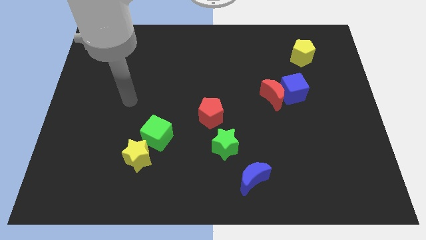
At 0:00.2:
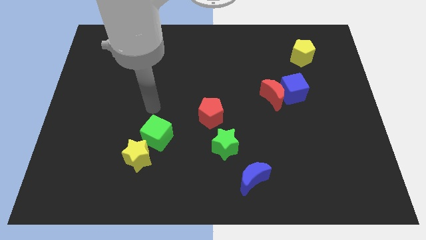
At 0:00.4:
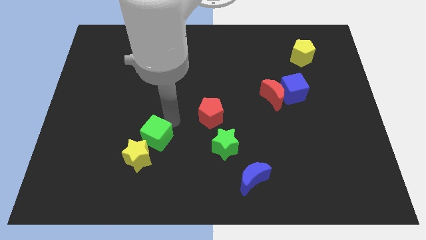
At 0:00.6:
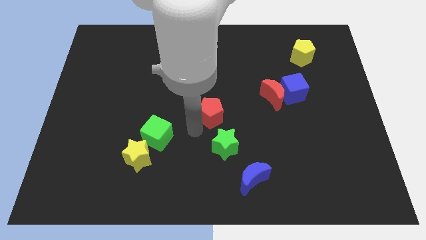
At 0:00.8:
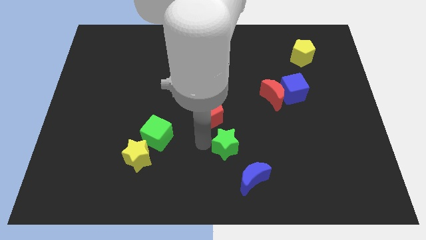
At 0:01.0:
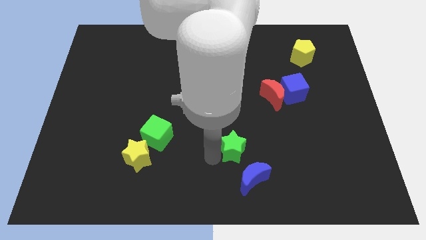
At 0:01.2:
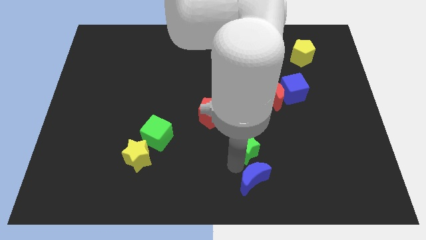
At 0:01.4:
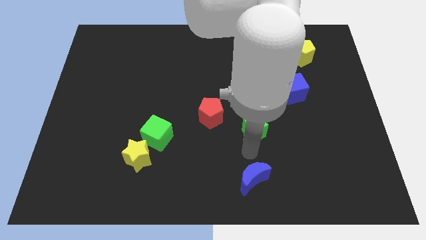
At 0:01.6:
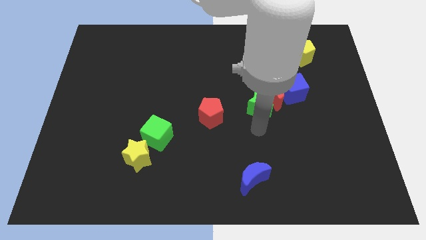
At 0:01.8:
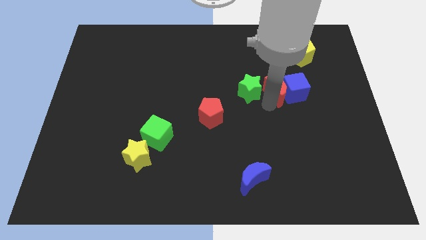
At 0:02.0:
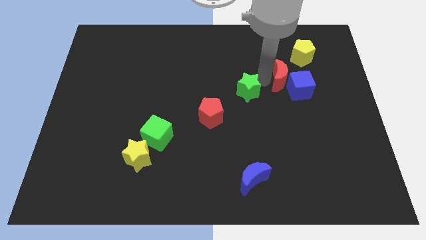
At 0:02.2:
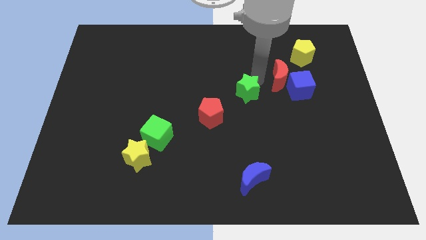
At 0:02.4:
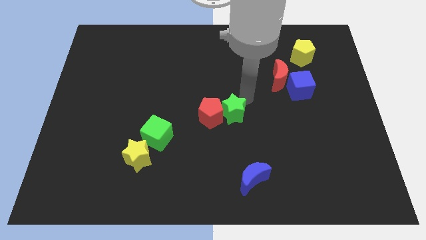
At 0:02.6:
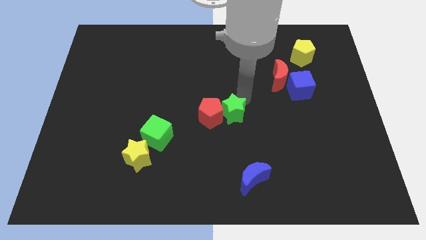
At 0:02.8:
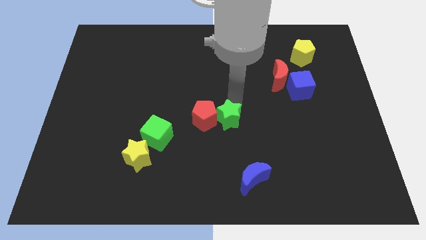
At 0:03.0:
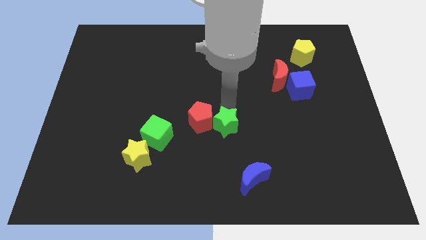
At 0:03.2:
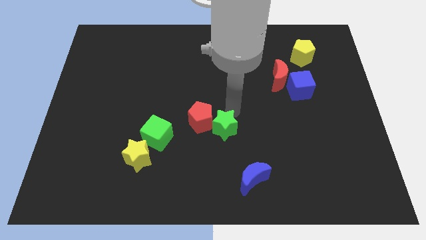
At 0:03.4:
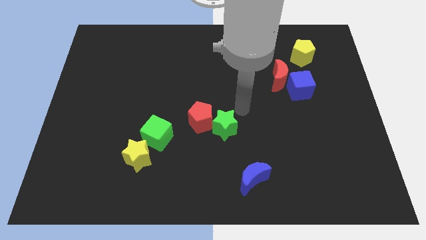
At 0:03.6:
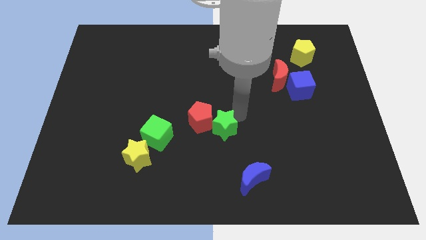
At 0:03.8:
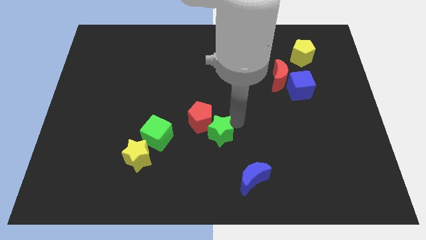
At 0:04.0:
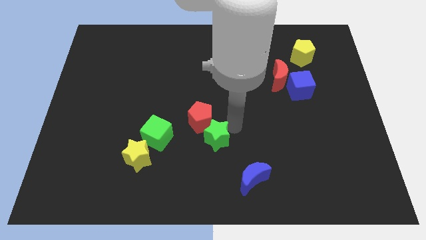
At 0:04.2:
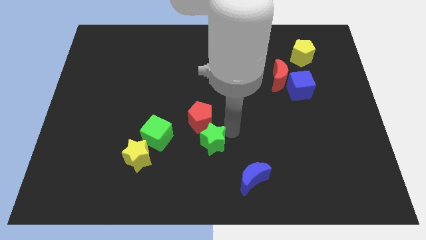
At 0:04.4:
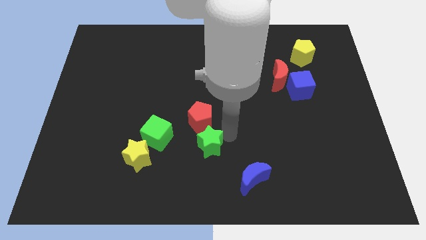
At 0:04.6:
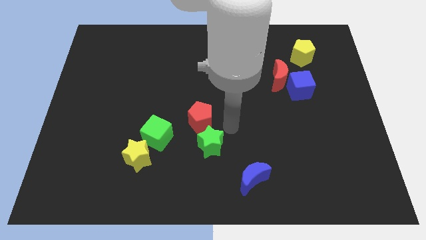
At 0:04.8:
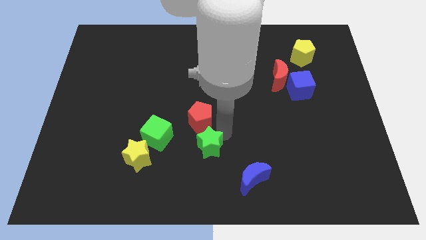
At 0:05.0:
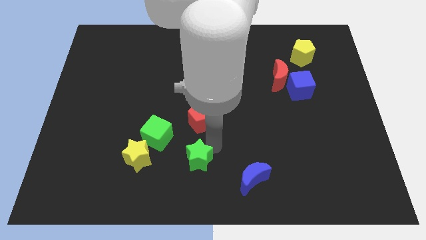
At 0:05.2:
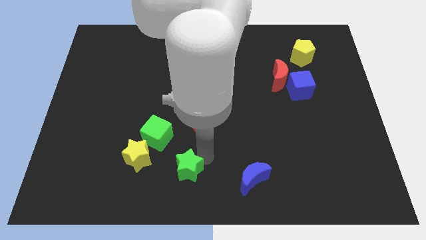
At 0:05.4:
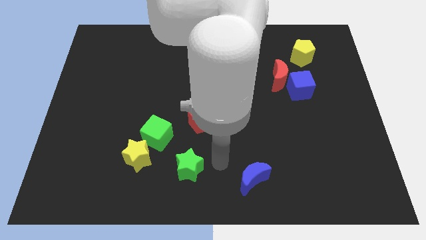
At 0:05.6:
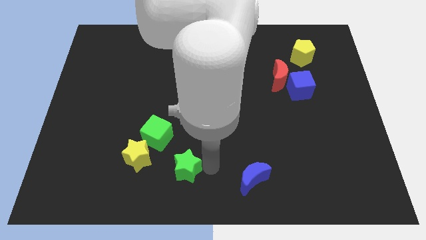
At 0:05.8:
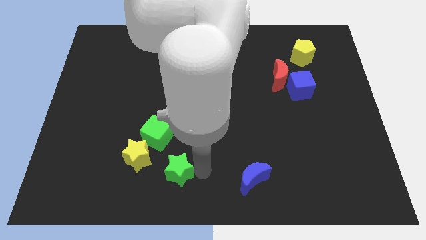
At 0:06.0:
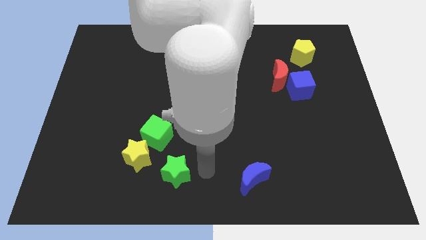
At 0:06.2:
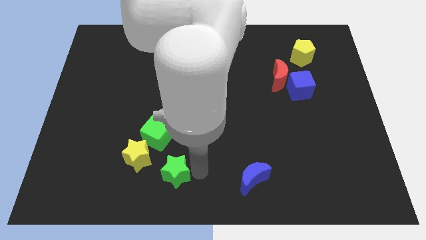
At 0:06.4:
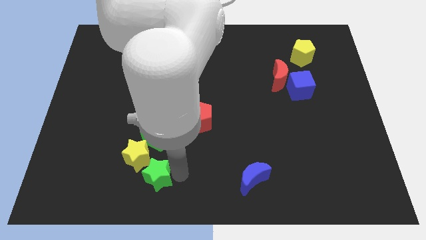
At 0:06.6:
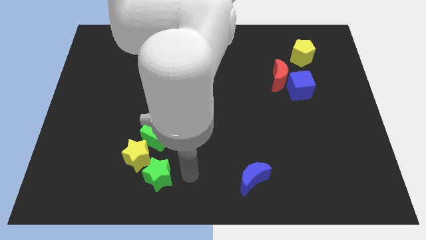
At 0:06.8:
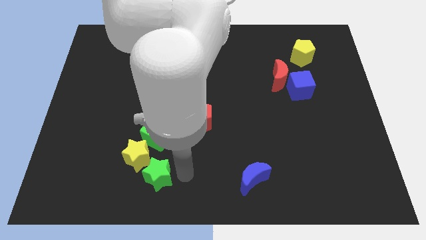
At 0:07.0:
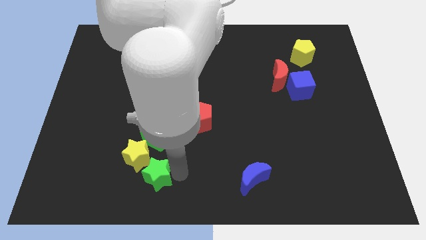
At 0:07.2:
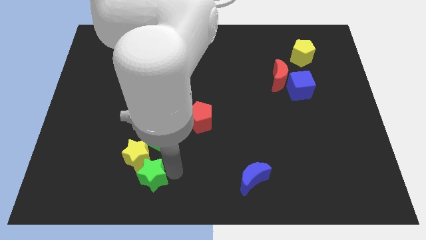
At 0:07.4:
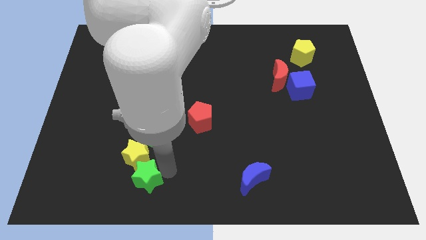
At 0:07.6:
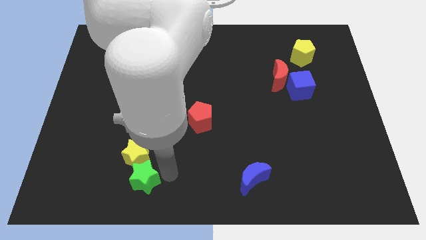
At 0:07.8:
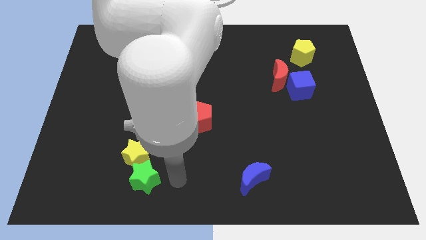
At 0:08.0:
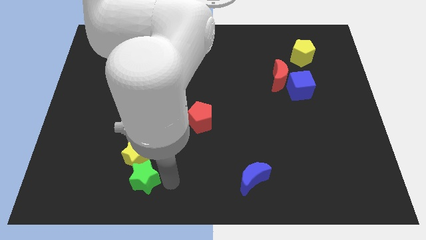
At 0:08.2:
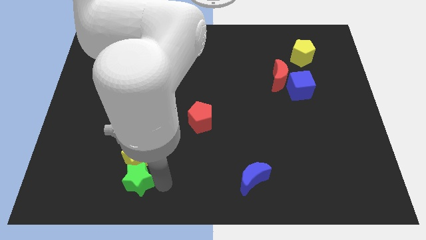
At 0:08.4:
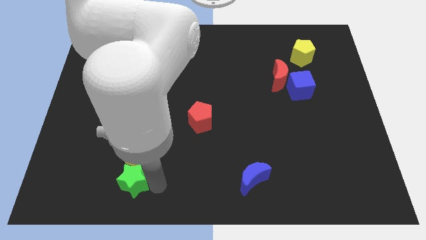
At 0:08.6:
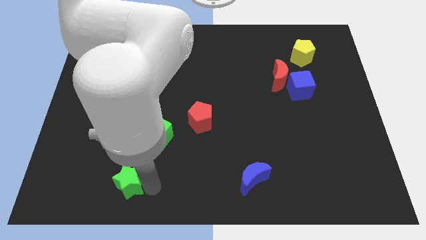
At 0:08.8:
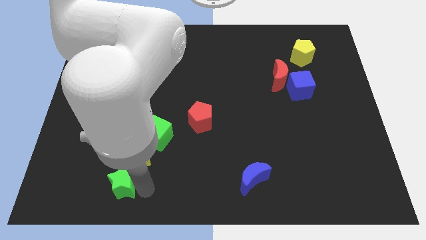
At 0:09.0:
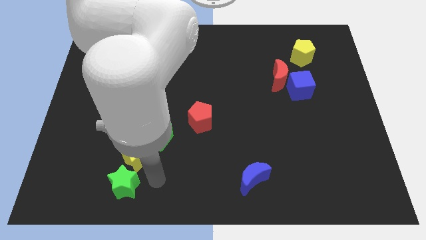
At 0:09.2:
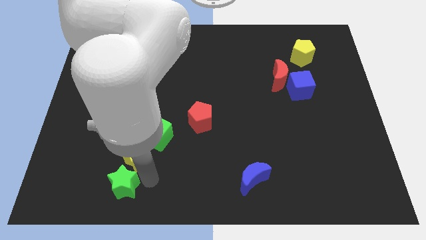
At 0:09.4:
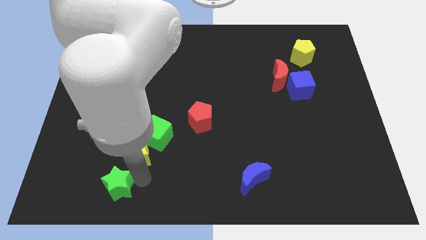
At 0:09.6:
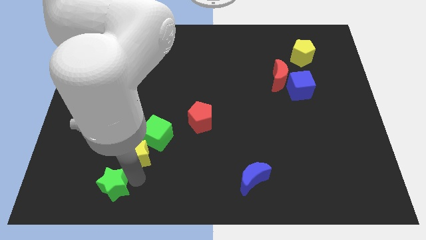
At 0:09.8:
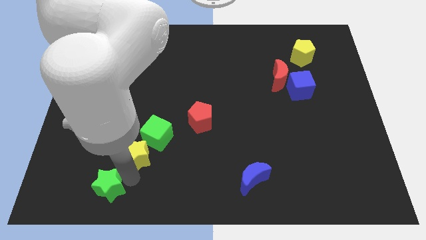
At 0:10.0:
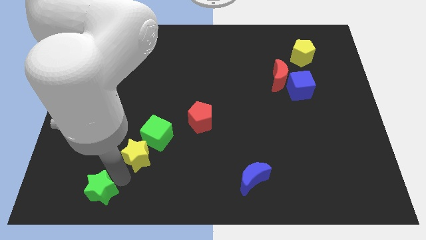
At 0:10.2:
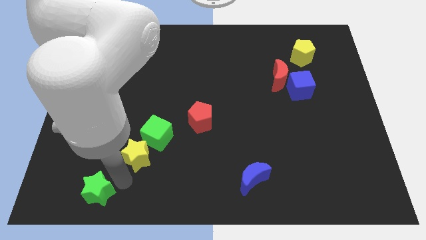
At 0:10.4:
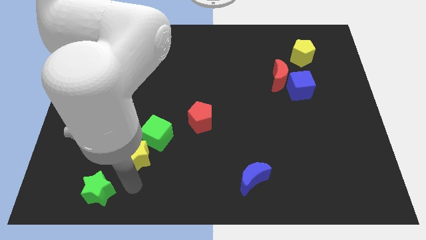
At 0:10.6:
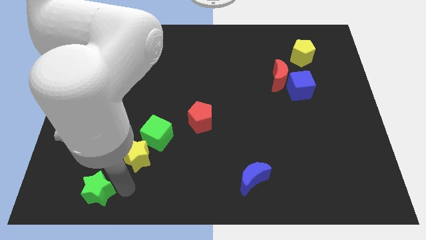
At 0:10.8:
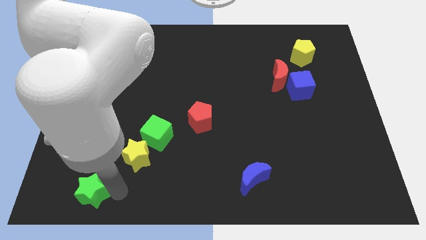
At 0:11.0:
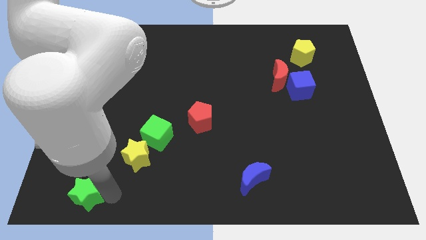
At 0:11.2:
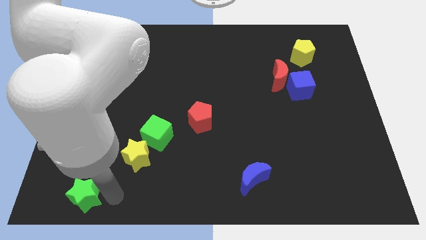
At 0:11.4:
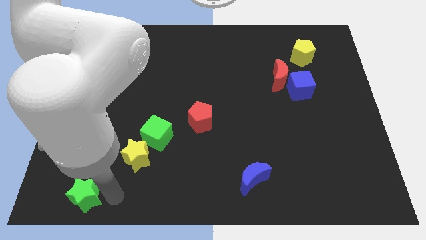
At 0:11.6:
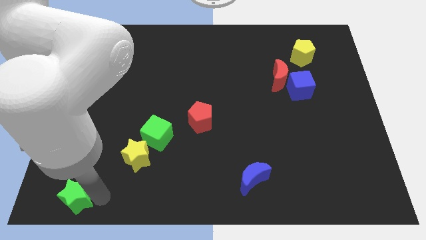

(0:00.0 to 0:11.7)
slide the green star to the bottom left of the board

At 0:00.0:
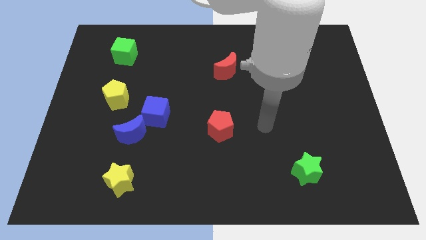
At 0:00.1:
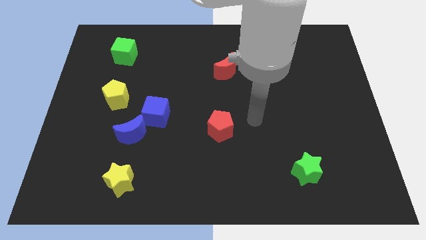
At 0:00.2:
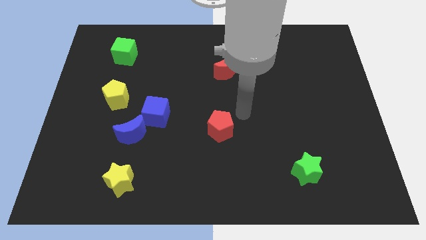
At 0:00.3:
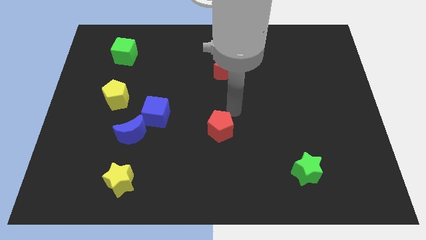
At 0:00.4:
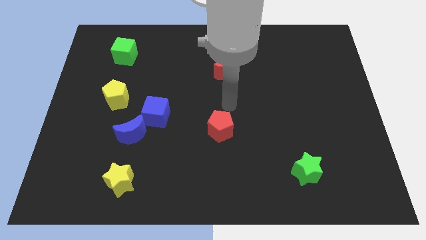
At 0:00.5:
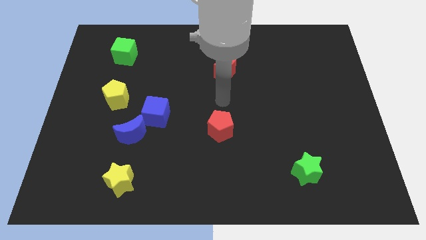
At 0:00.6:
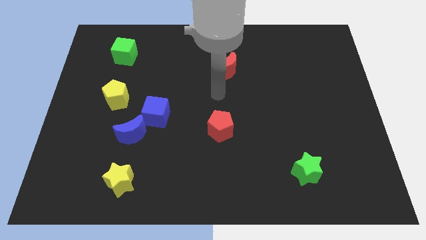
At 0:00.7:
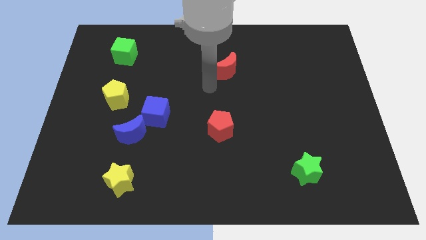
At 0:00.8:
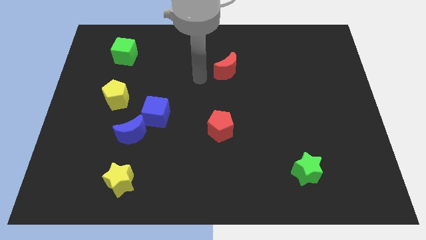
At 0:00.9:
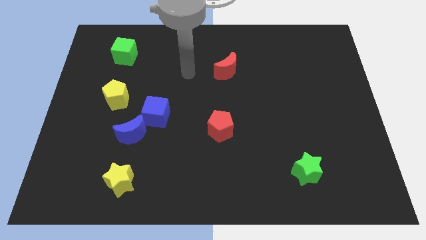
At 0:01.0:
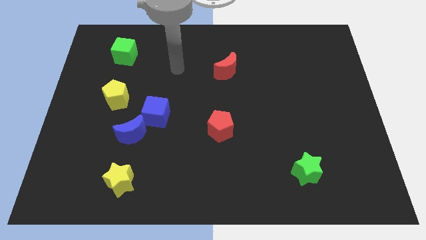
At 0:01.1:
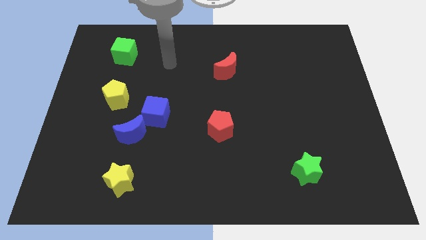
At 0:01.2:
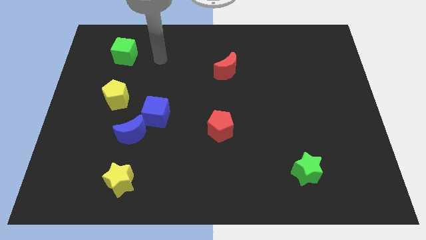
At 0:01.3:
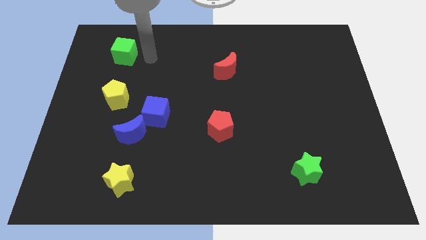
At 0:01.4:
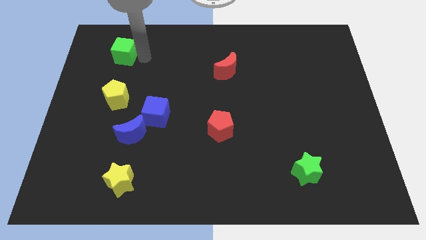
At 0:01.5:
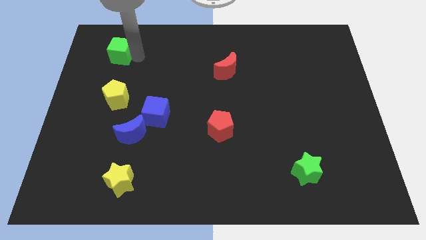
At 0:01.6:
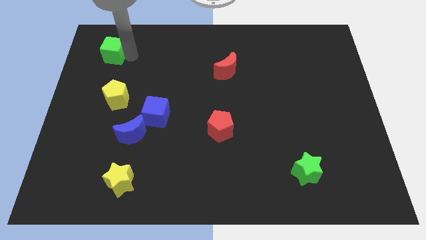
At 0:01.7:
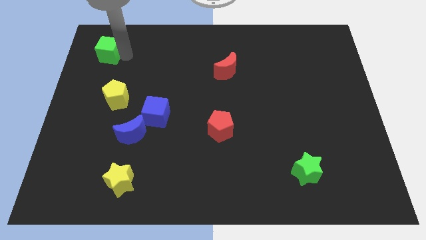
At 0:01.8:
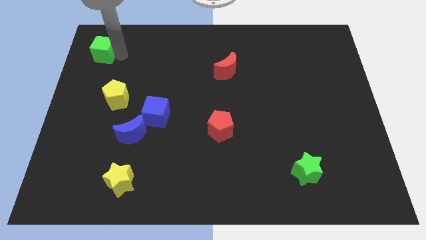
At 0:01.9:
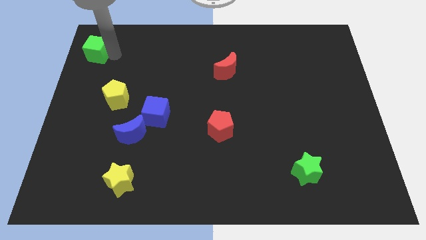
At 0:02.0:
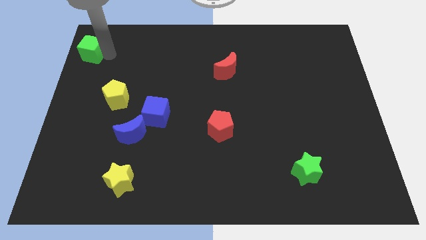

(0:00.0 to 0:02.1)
slide the green cube to the upper left corner
